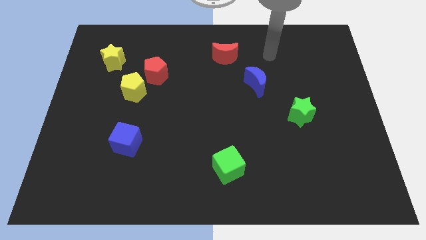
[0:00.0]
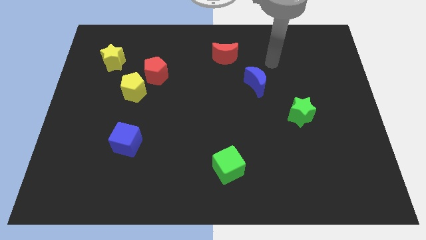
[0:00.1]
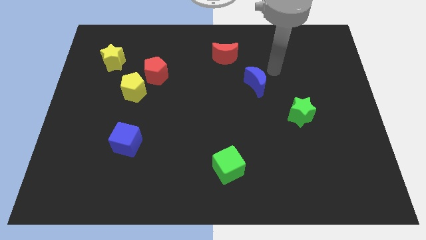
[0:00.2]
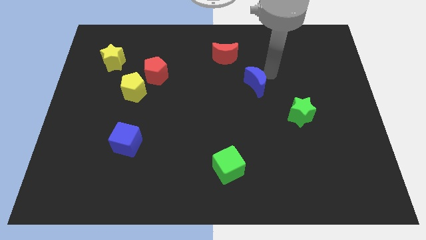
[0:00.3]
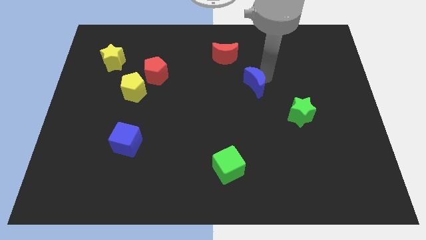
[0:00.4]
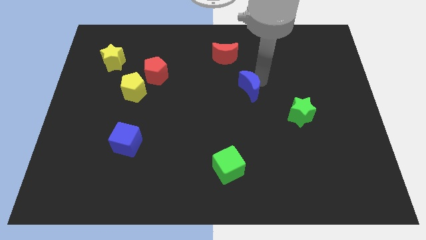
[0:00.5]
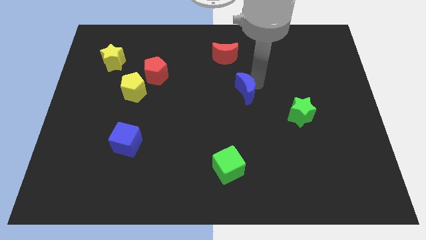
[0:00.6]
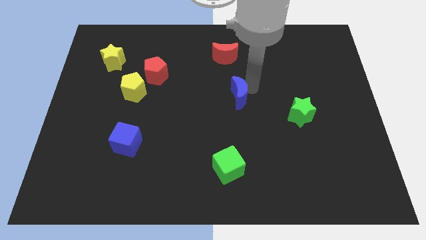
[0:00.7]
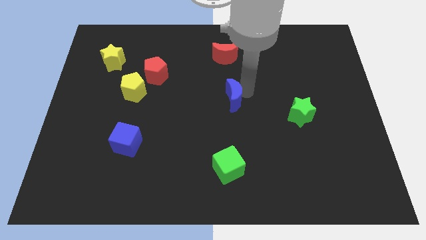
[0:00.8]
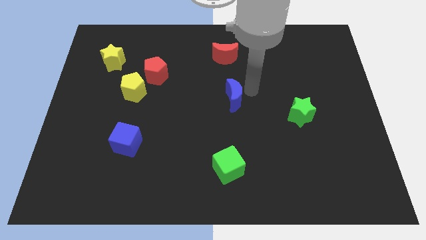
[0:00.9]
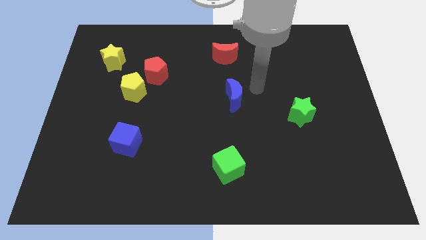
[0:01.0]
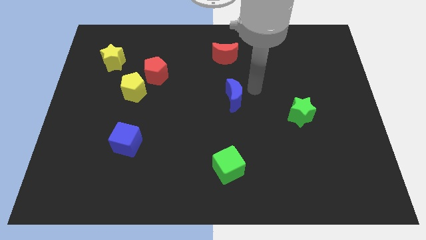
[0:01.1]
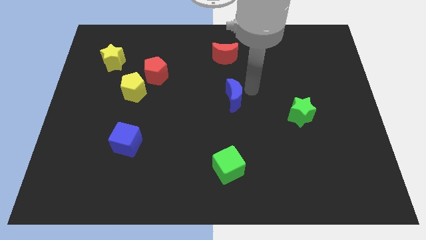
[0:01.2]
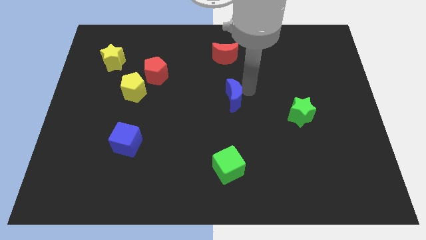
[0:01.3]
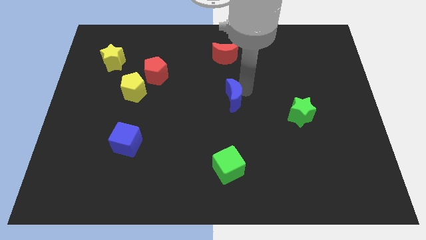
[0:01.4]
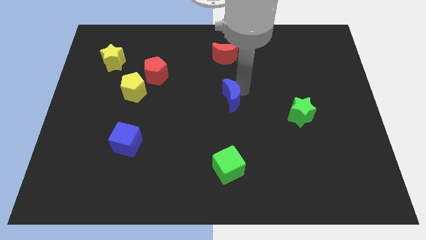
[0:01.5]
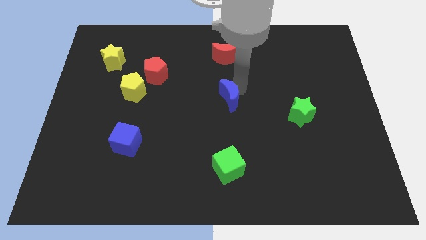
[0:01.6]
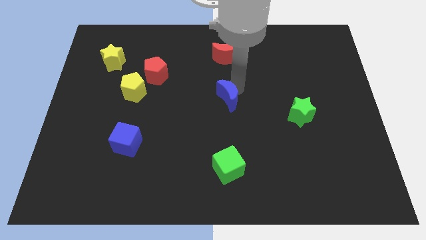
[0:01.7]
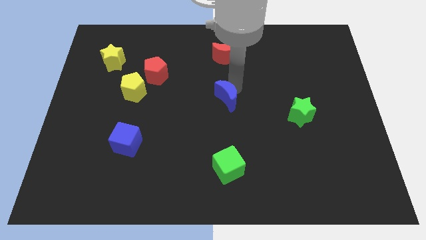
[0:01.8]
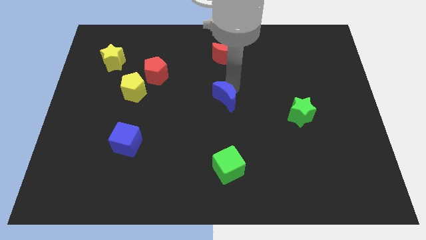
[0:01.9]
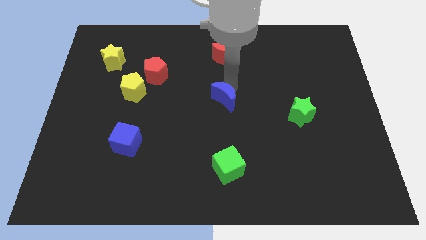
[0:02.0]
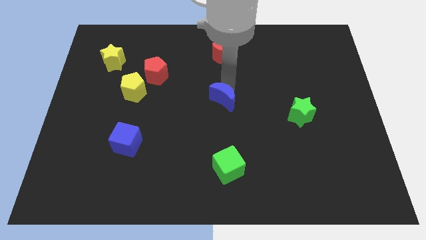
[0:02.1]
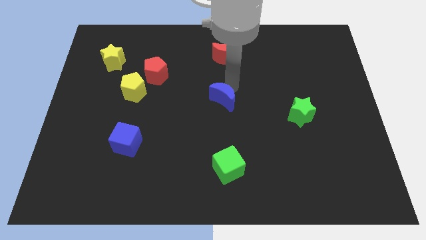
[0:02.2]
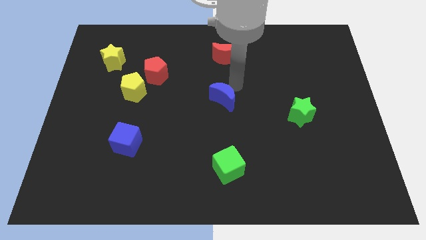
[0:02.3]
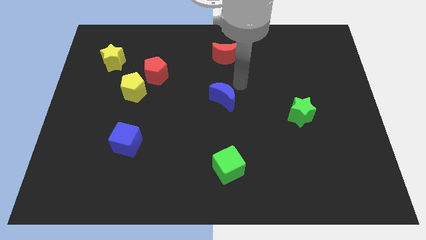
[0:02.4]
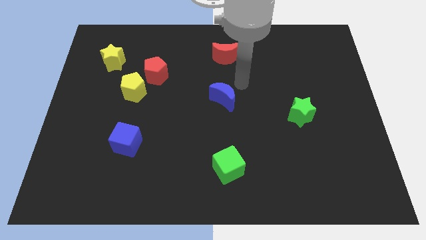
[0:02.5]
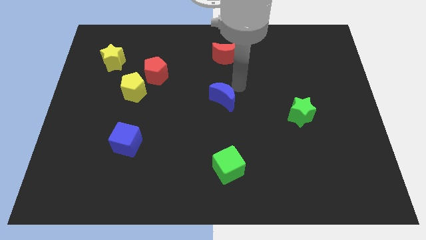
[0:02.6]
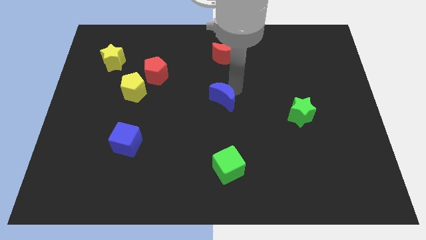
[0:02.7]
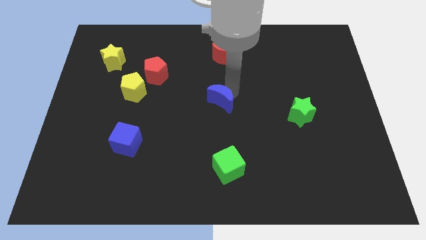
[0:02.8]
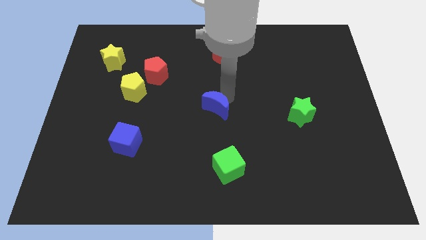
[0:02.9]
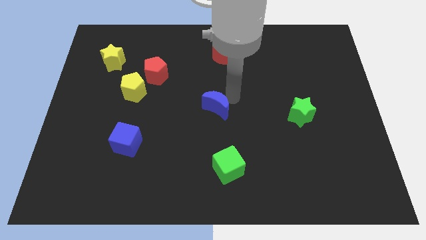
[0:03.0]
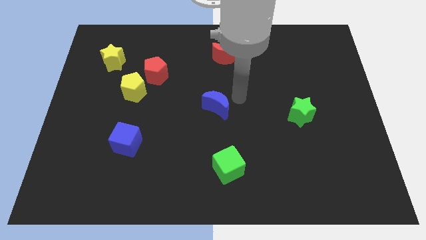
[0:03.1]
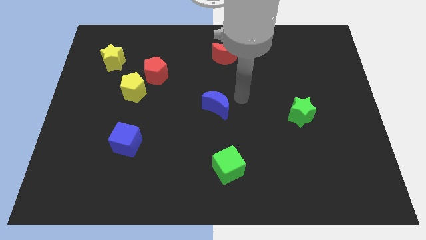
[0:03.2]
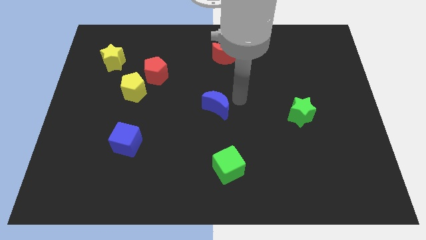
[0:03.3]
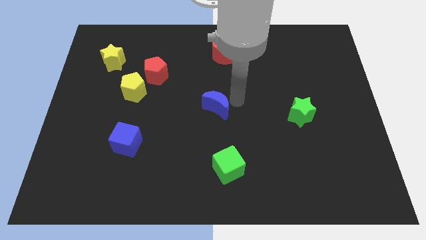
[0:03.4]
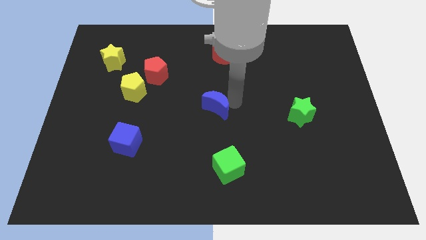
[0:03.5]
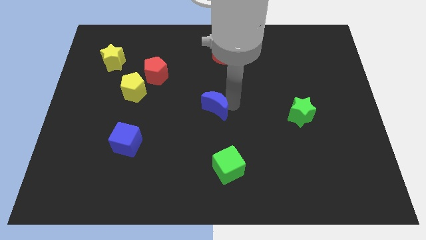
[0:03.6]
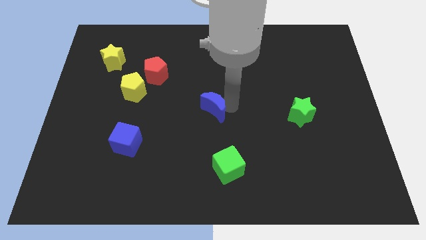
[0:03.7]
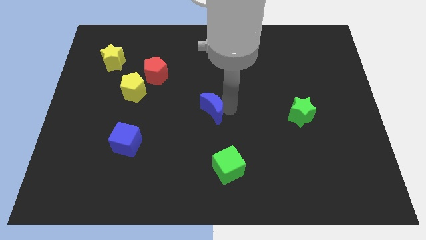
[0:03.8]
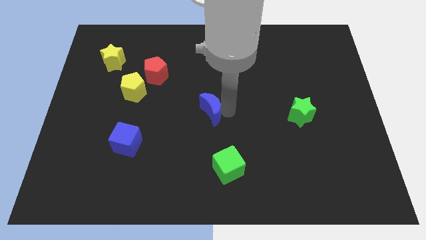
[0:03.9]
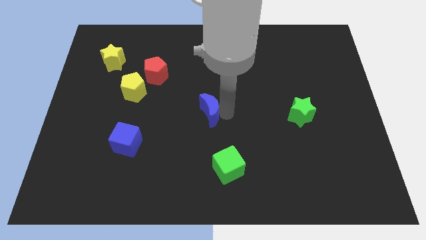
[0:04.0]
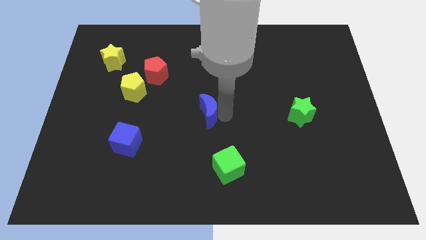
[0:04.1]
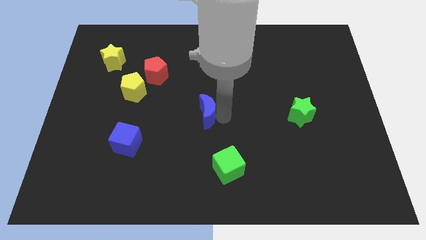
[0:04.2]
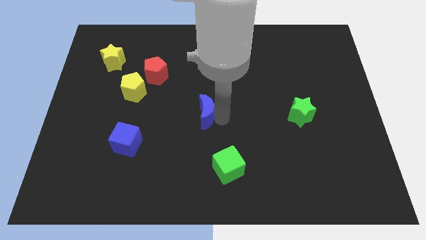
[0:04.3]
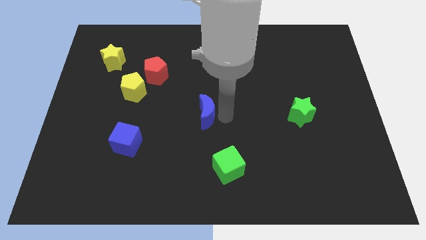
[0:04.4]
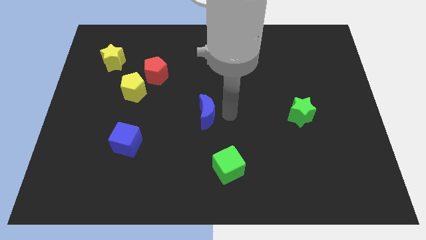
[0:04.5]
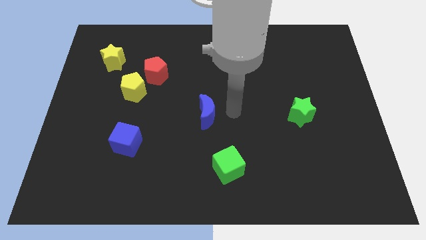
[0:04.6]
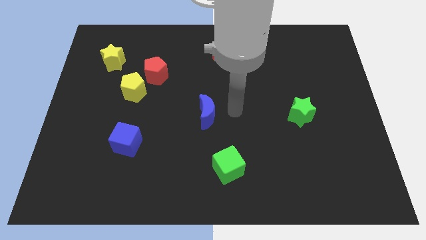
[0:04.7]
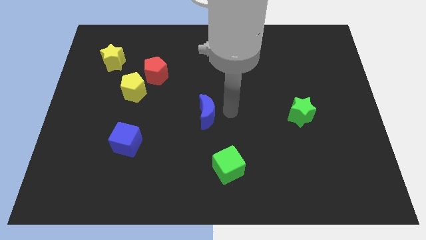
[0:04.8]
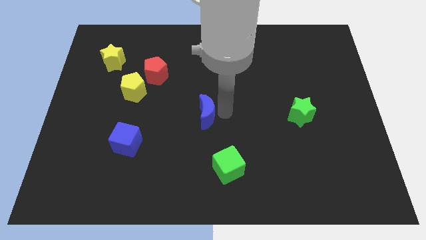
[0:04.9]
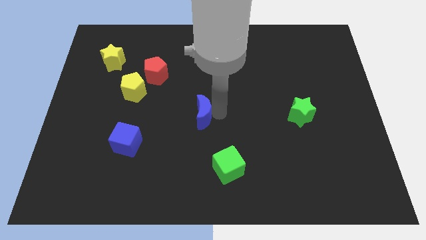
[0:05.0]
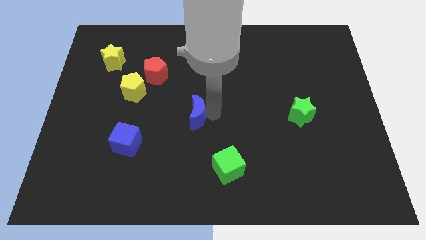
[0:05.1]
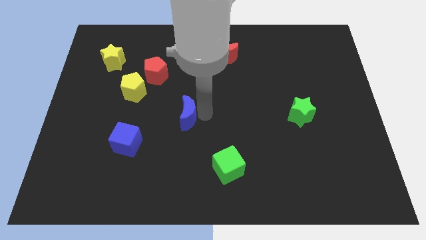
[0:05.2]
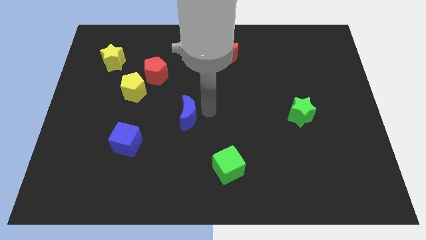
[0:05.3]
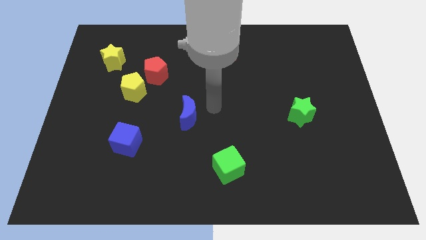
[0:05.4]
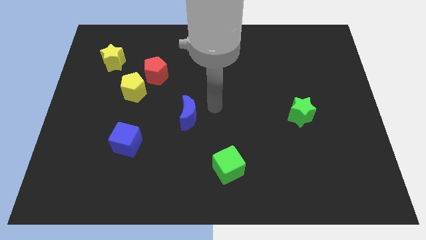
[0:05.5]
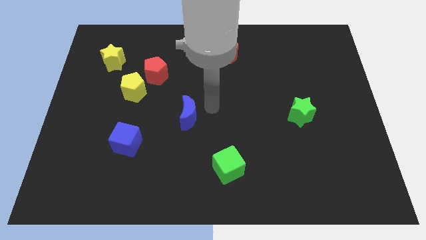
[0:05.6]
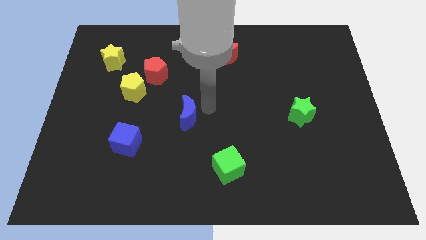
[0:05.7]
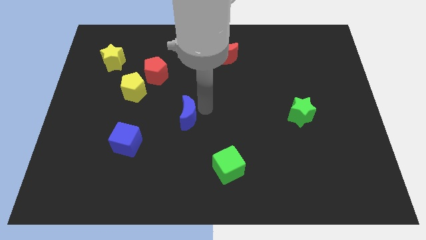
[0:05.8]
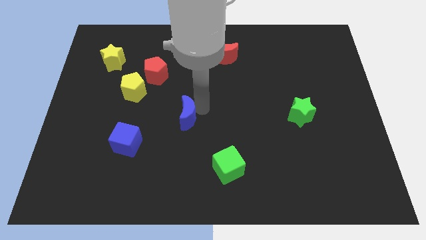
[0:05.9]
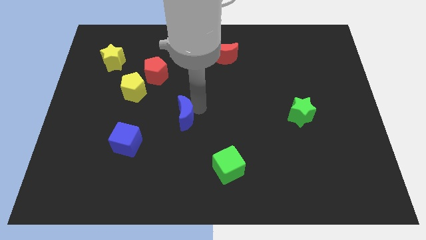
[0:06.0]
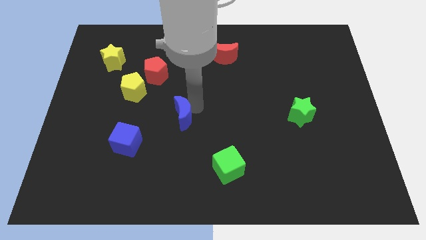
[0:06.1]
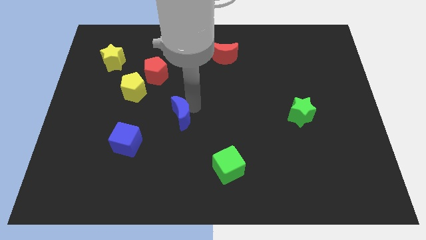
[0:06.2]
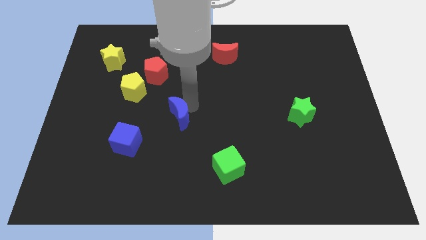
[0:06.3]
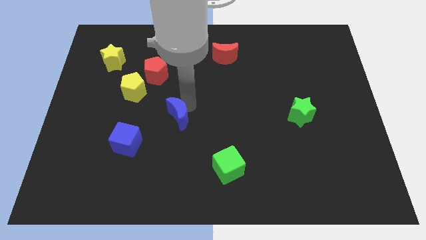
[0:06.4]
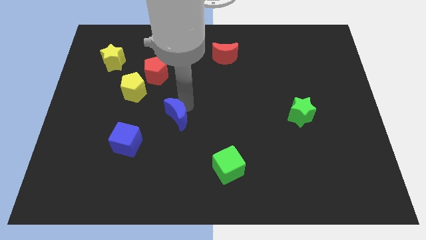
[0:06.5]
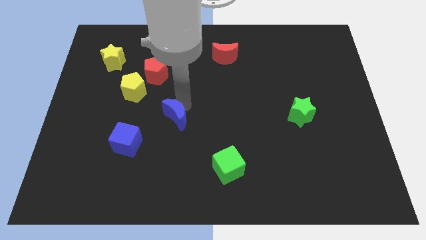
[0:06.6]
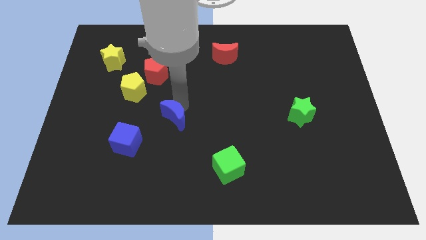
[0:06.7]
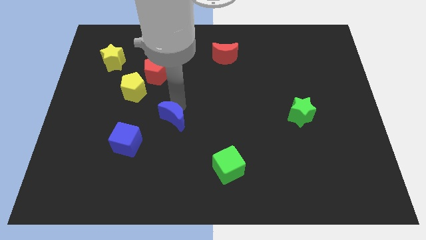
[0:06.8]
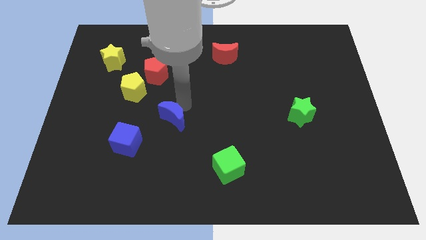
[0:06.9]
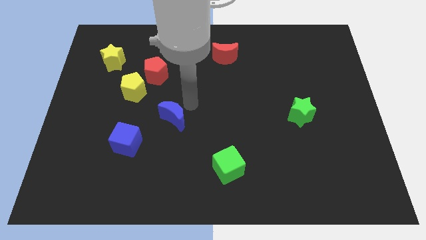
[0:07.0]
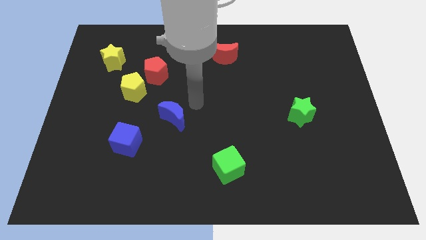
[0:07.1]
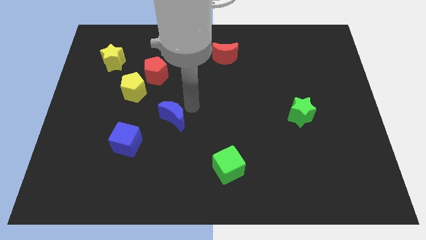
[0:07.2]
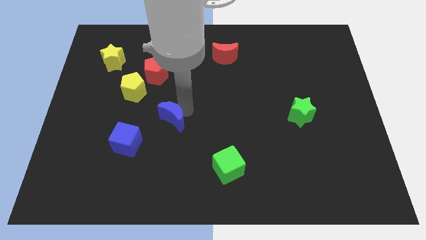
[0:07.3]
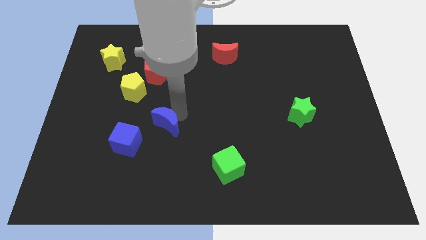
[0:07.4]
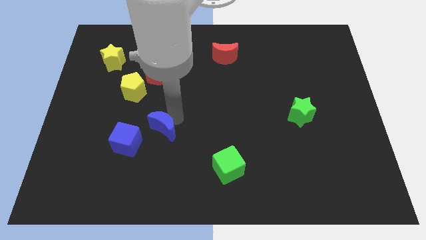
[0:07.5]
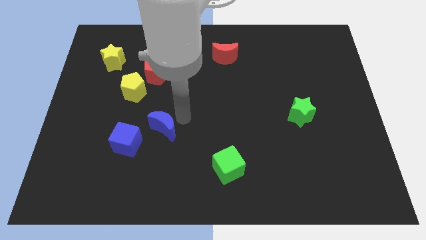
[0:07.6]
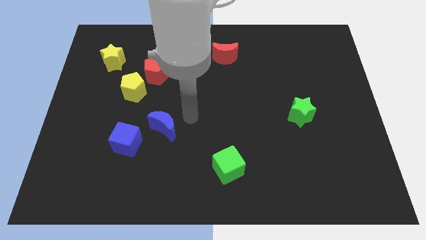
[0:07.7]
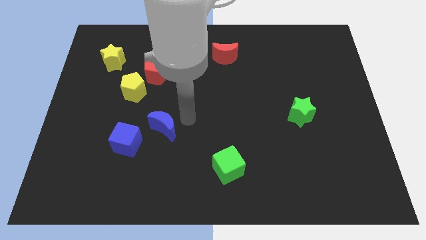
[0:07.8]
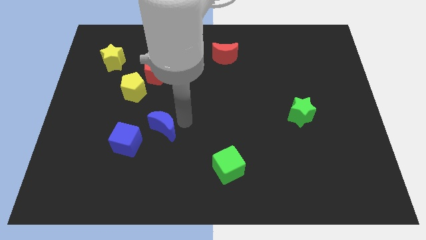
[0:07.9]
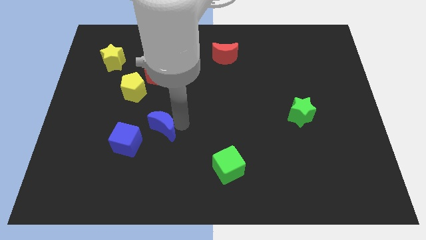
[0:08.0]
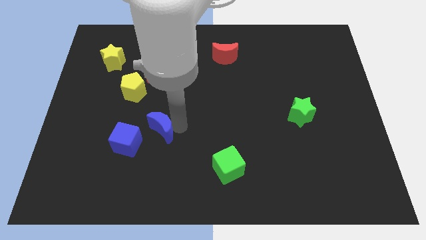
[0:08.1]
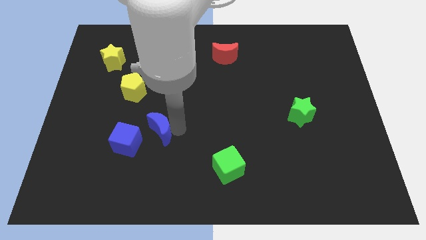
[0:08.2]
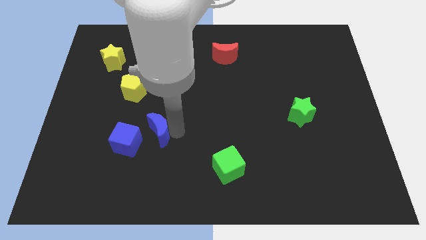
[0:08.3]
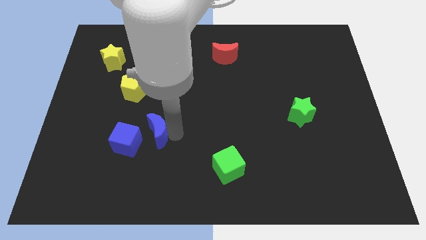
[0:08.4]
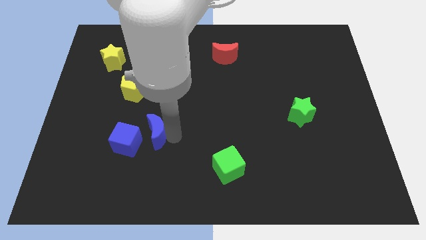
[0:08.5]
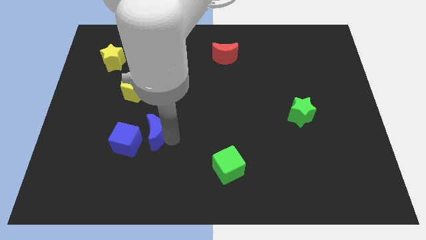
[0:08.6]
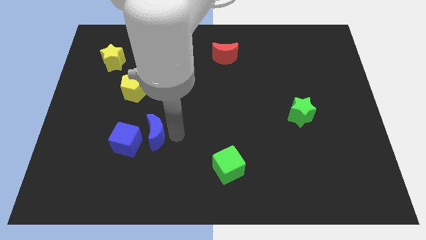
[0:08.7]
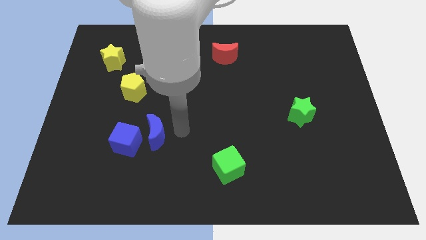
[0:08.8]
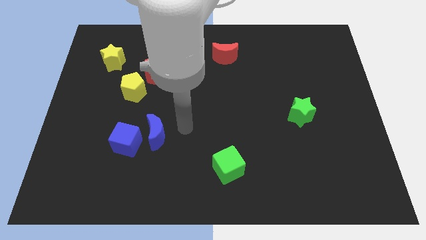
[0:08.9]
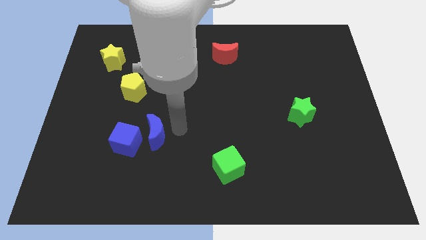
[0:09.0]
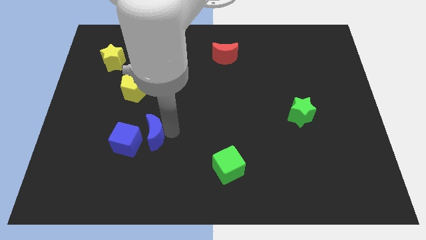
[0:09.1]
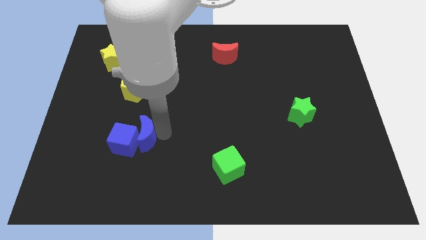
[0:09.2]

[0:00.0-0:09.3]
put the blue moon towards the blue cube
